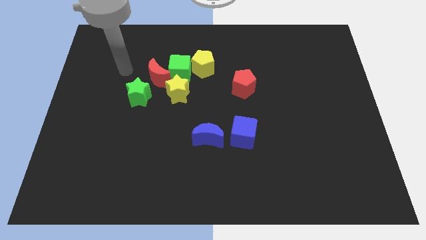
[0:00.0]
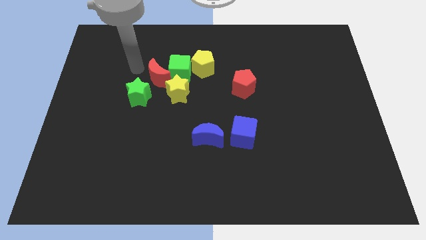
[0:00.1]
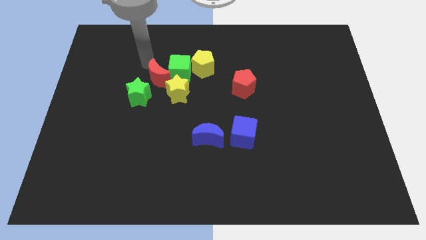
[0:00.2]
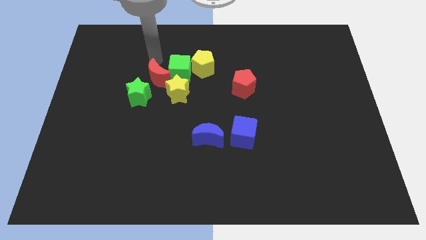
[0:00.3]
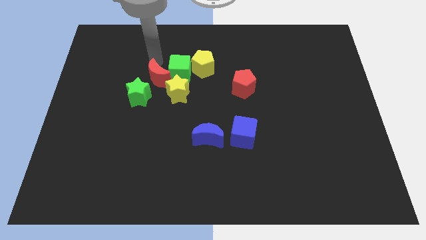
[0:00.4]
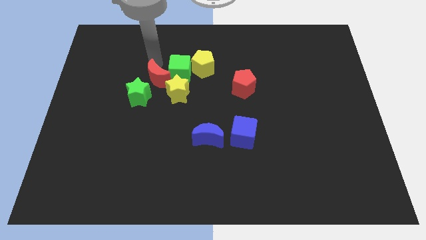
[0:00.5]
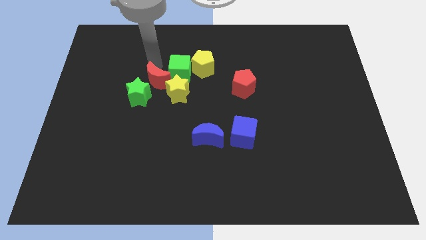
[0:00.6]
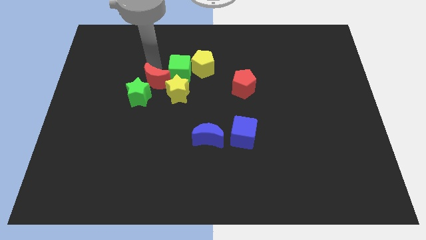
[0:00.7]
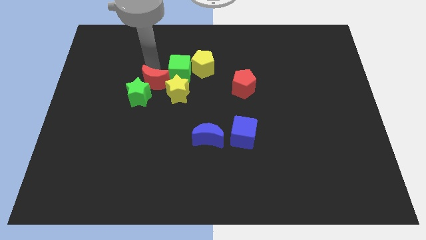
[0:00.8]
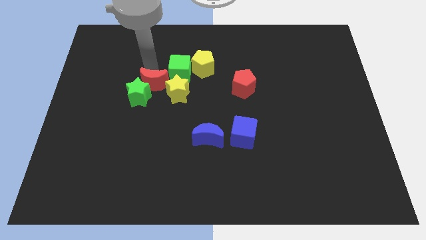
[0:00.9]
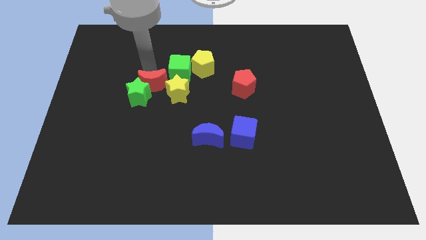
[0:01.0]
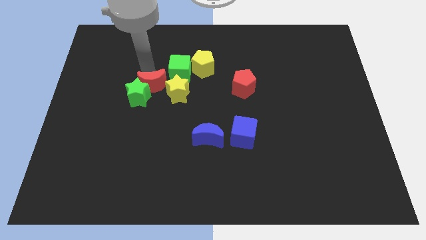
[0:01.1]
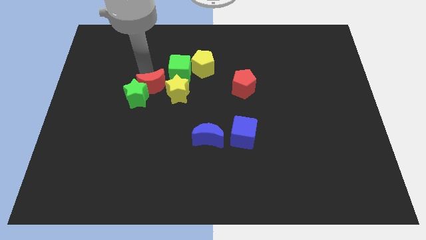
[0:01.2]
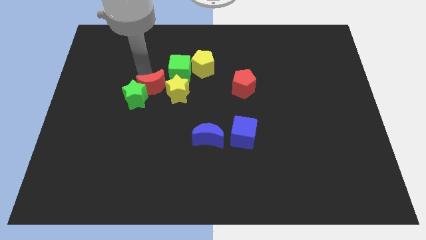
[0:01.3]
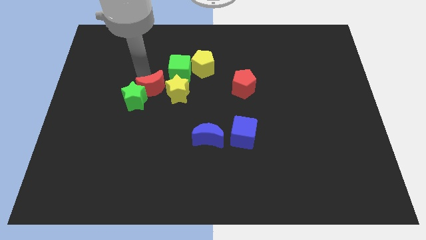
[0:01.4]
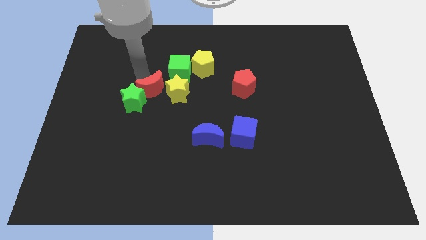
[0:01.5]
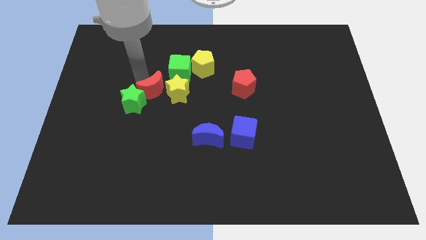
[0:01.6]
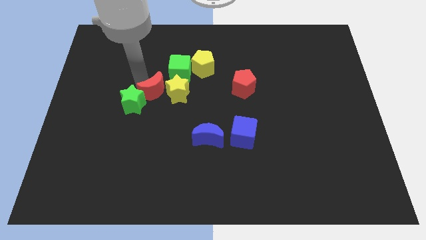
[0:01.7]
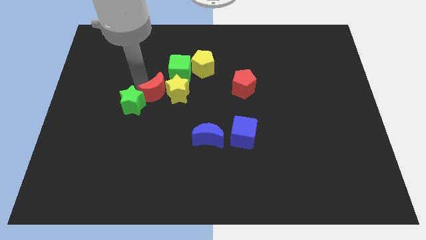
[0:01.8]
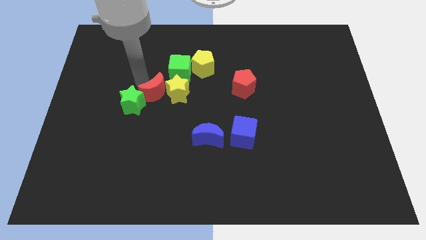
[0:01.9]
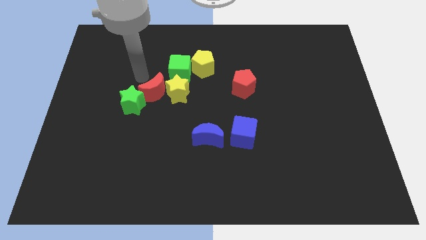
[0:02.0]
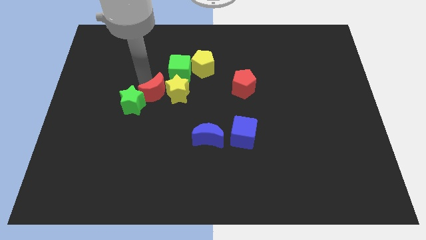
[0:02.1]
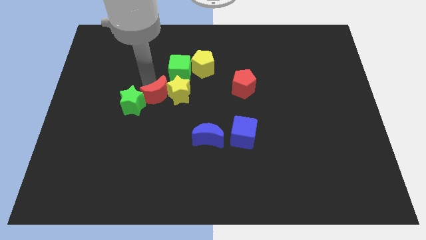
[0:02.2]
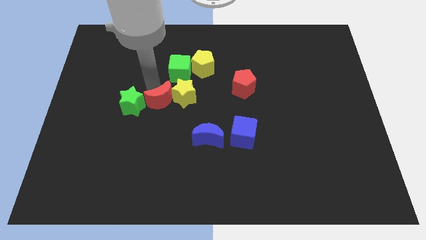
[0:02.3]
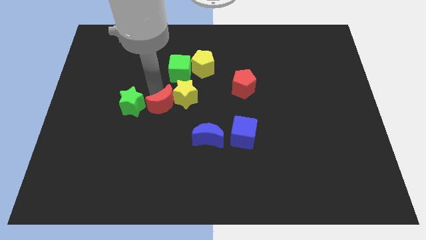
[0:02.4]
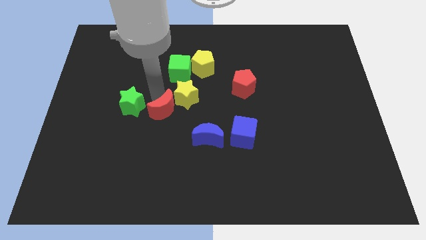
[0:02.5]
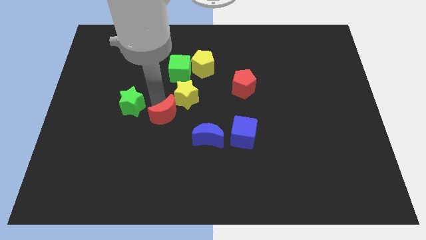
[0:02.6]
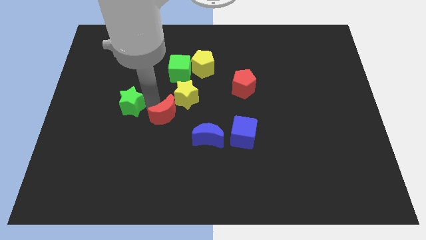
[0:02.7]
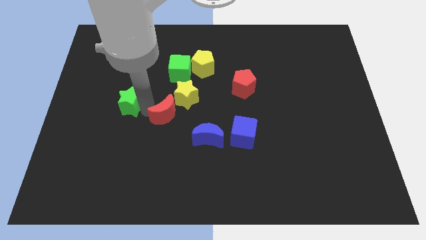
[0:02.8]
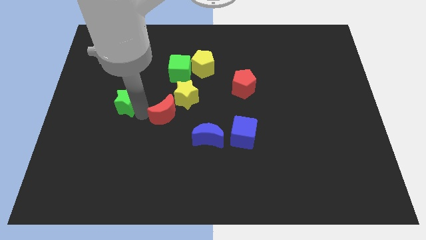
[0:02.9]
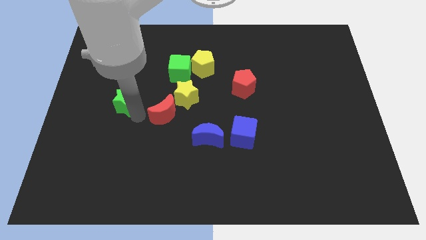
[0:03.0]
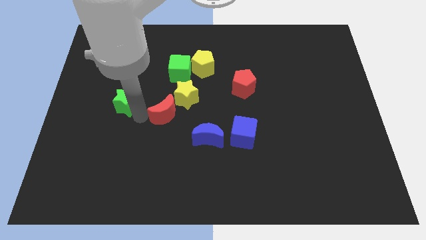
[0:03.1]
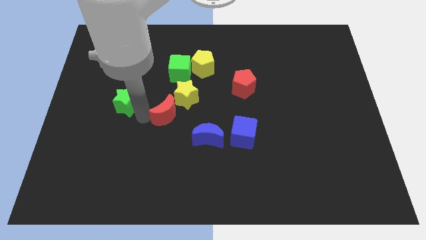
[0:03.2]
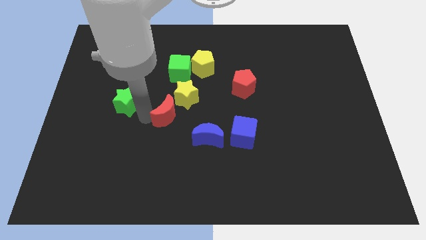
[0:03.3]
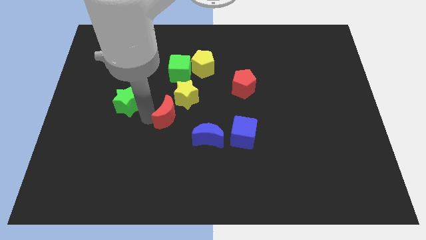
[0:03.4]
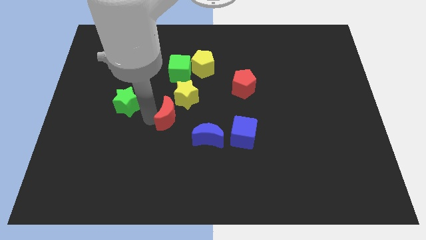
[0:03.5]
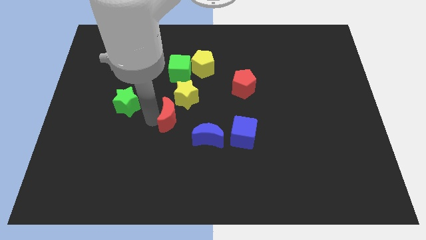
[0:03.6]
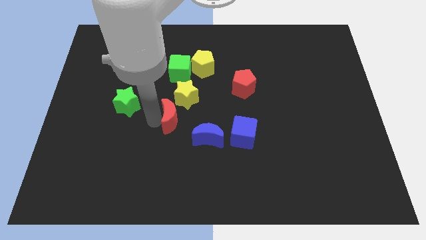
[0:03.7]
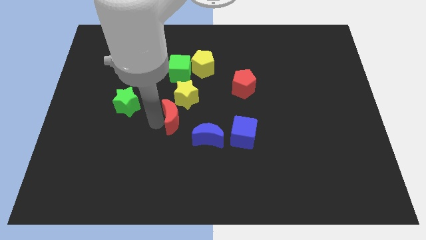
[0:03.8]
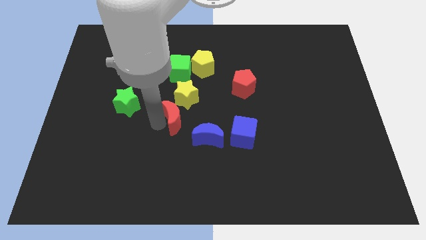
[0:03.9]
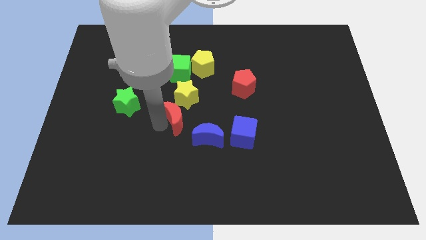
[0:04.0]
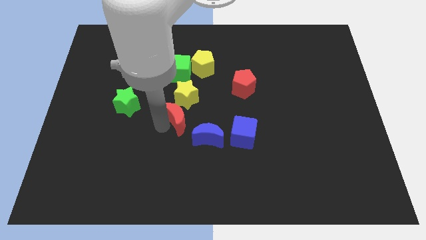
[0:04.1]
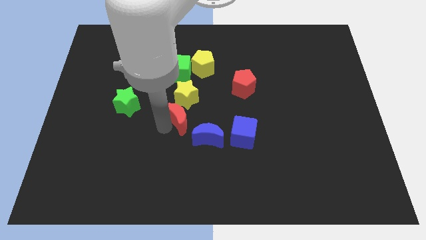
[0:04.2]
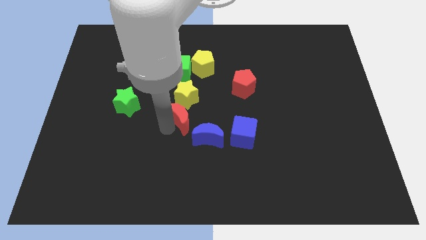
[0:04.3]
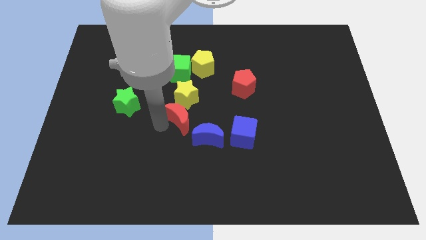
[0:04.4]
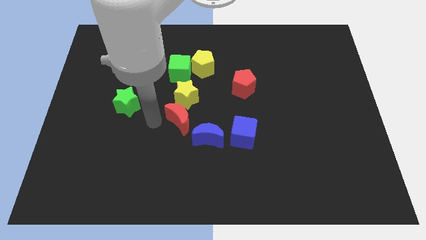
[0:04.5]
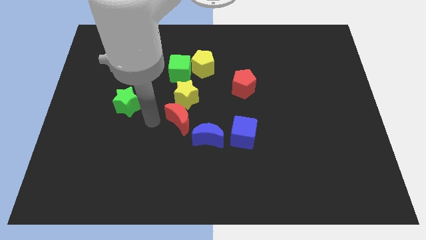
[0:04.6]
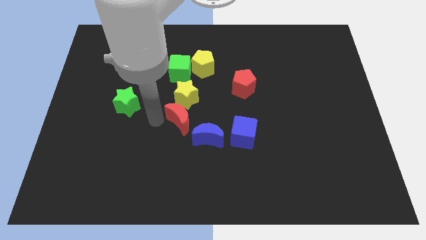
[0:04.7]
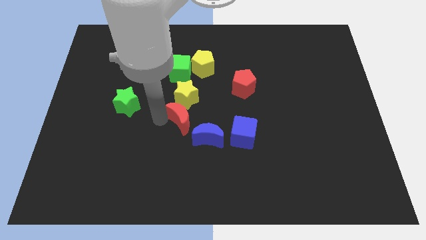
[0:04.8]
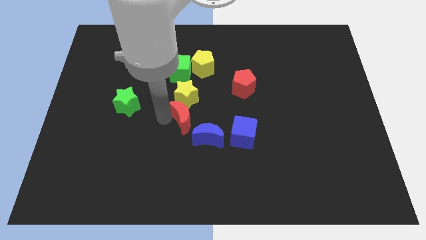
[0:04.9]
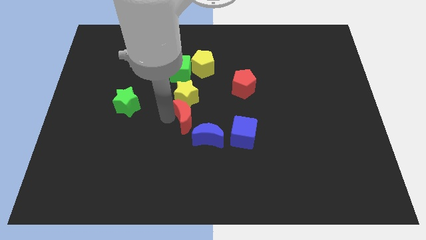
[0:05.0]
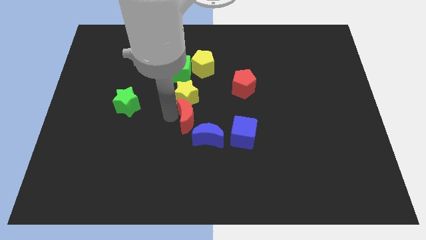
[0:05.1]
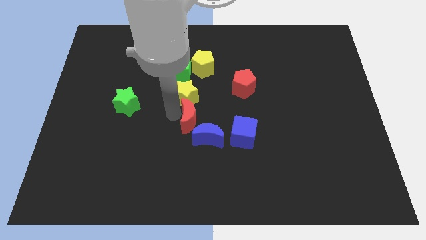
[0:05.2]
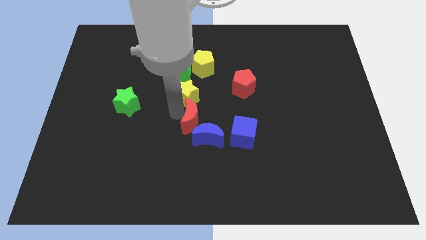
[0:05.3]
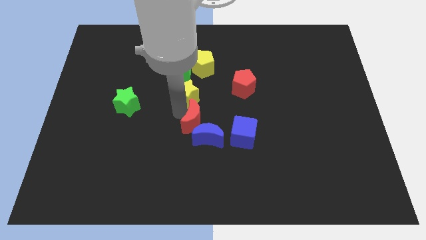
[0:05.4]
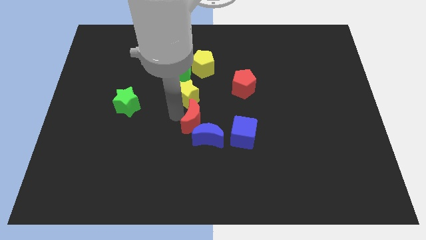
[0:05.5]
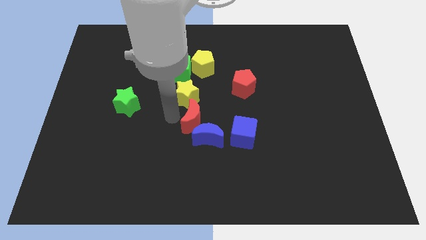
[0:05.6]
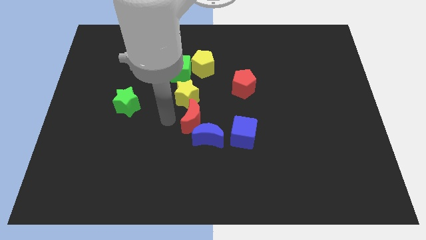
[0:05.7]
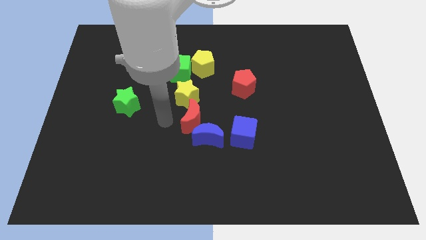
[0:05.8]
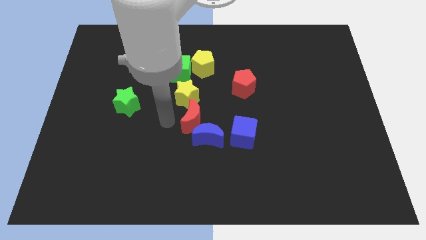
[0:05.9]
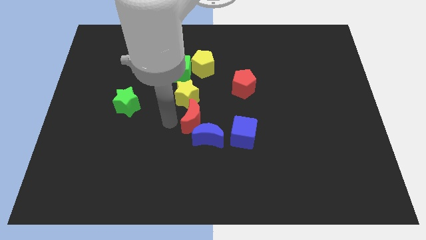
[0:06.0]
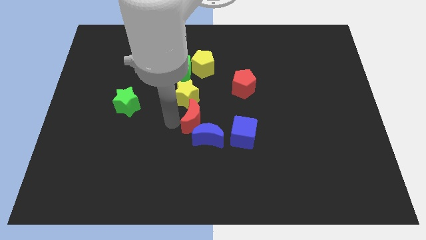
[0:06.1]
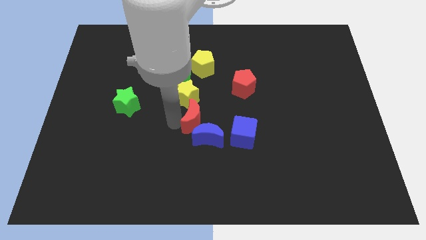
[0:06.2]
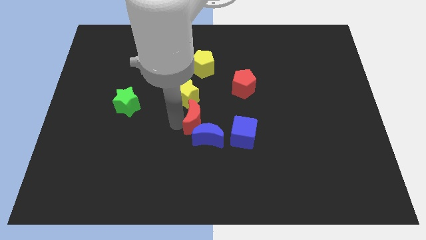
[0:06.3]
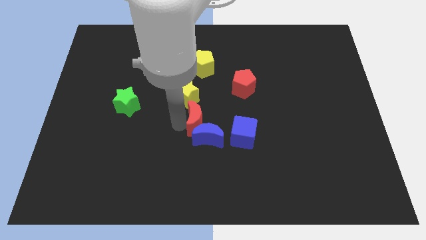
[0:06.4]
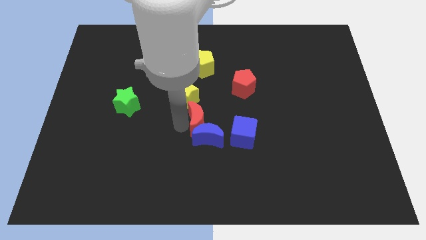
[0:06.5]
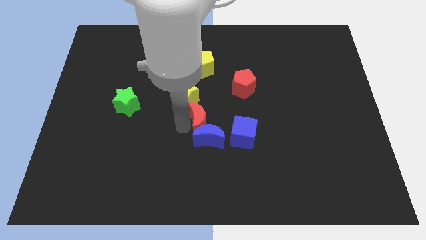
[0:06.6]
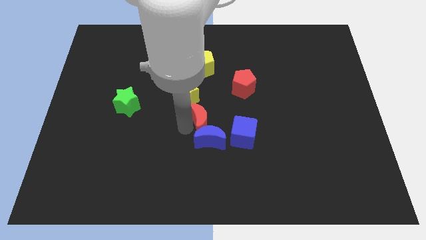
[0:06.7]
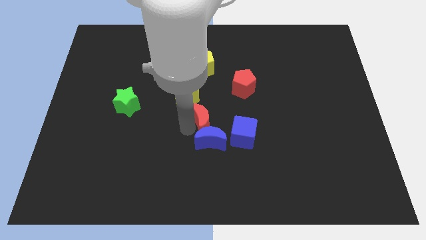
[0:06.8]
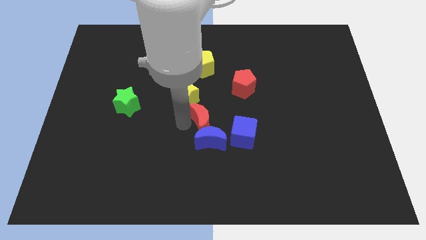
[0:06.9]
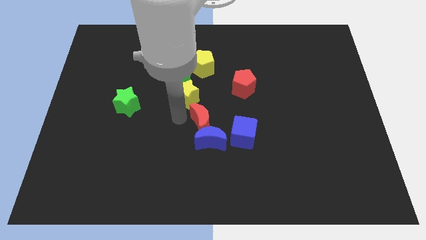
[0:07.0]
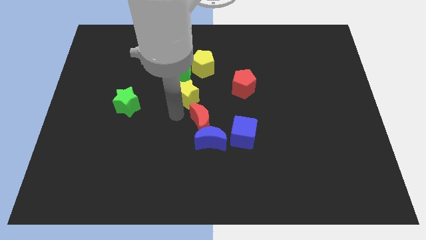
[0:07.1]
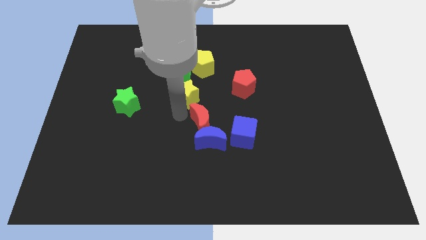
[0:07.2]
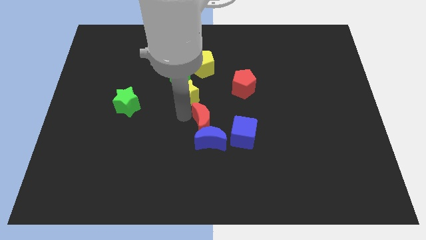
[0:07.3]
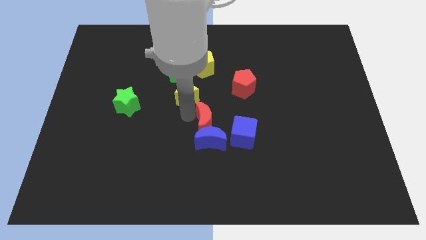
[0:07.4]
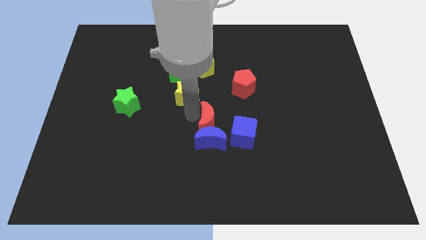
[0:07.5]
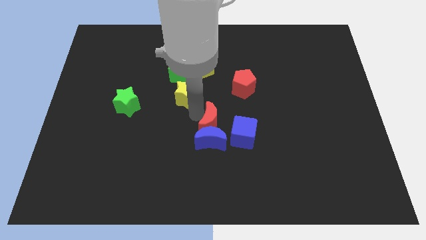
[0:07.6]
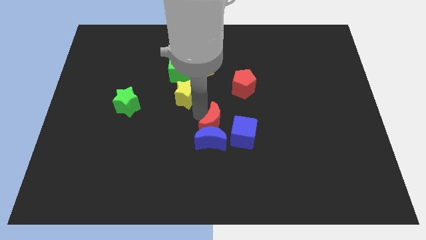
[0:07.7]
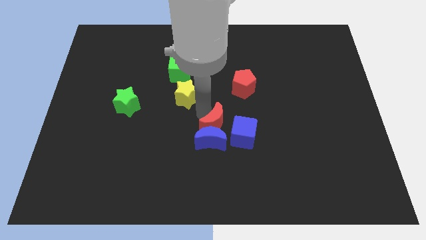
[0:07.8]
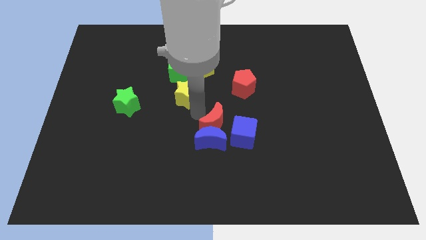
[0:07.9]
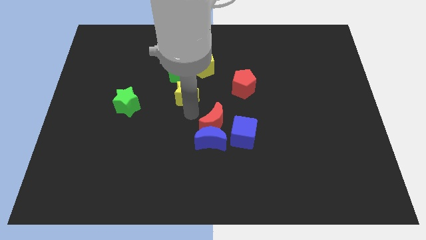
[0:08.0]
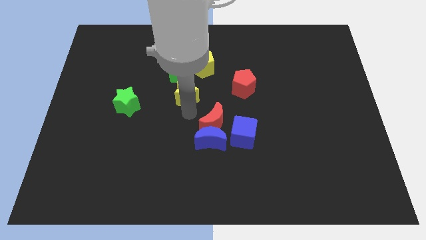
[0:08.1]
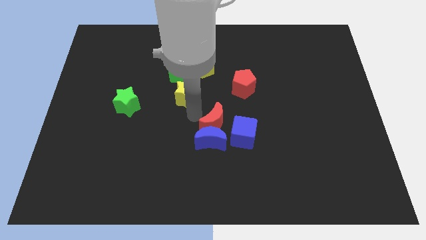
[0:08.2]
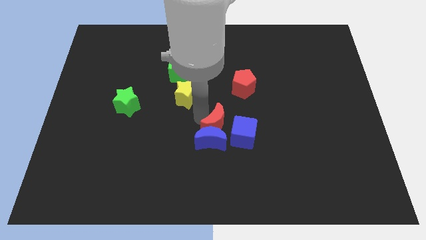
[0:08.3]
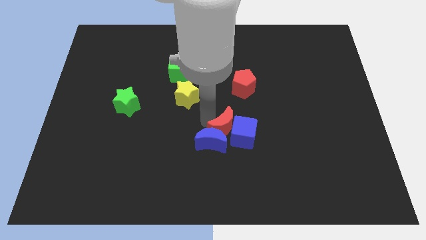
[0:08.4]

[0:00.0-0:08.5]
move the red moon towards the blue cube
